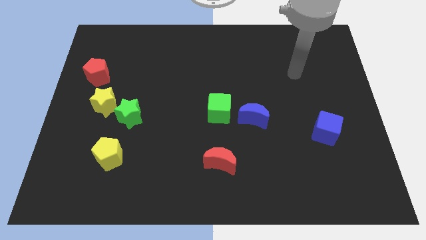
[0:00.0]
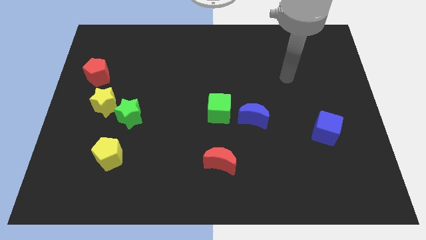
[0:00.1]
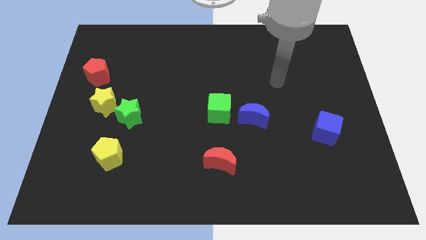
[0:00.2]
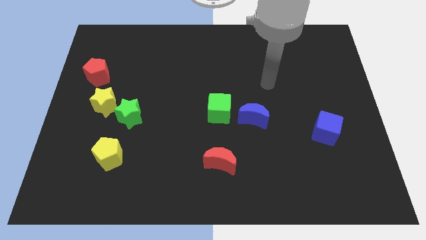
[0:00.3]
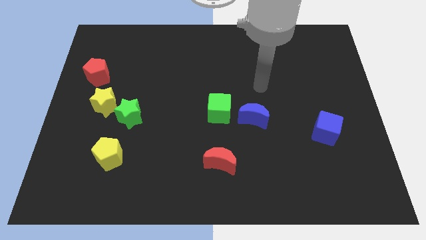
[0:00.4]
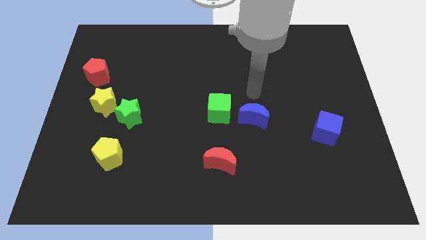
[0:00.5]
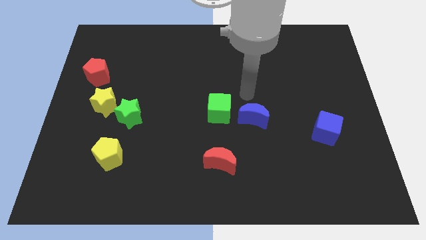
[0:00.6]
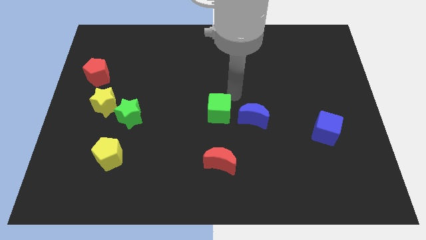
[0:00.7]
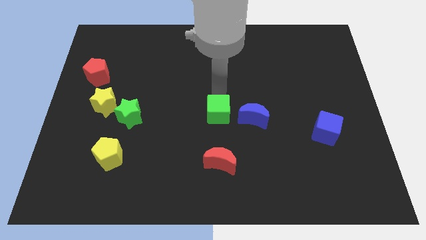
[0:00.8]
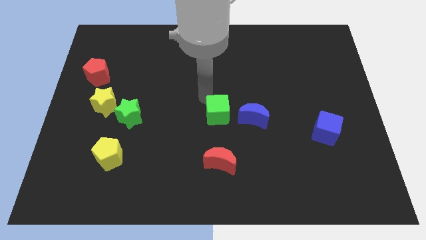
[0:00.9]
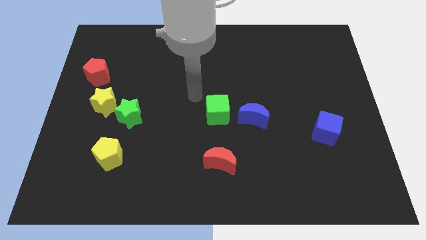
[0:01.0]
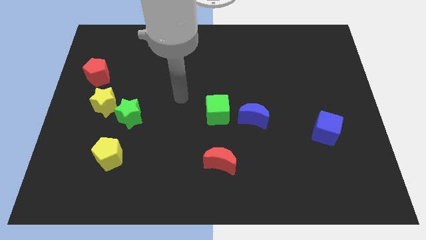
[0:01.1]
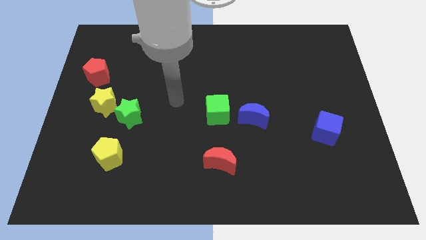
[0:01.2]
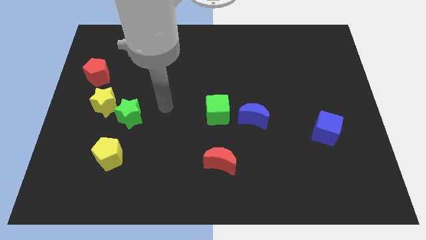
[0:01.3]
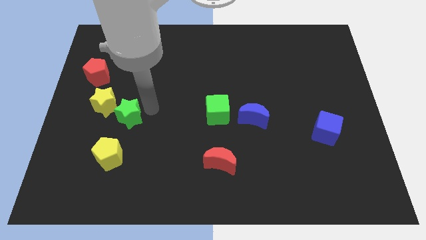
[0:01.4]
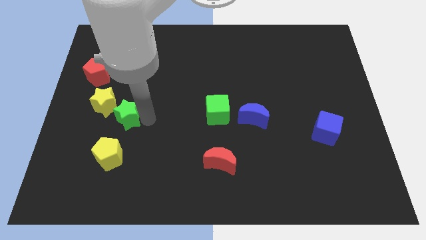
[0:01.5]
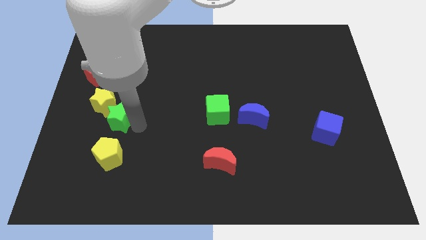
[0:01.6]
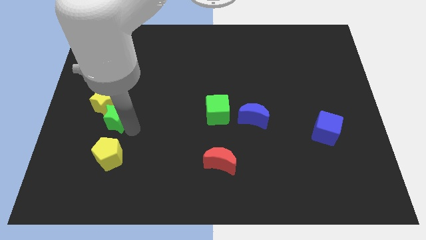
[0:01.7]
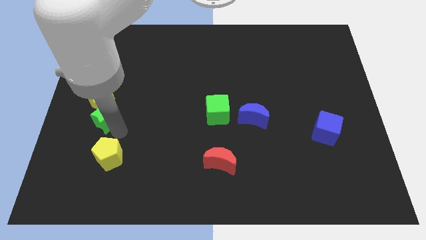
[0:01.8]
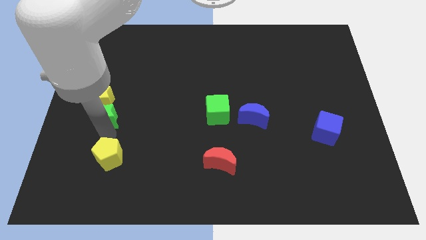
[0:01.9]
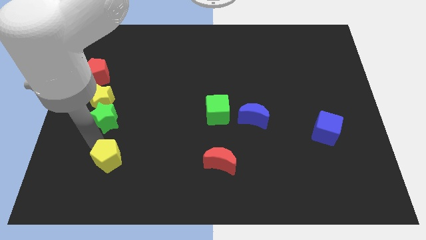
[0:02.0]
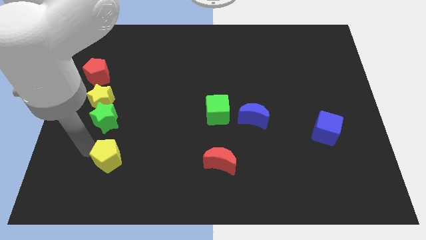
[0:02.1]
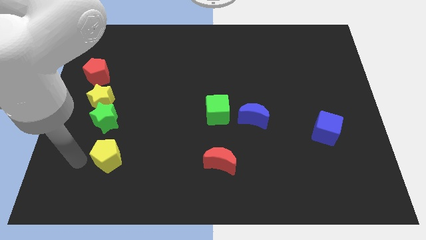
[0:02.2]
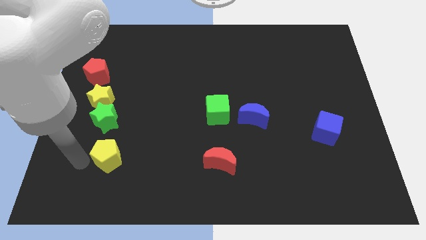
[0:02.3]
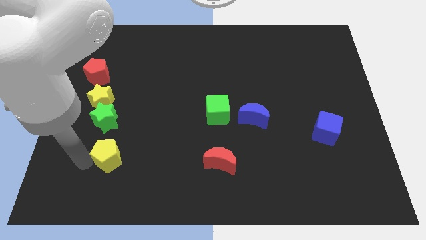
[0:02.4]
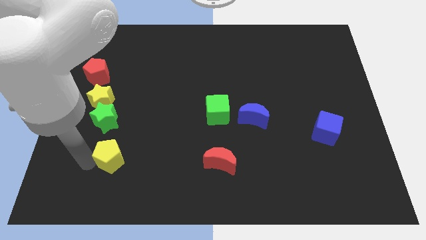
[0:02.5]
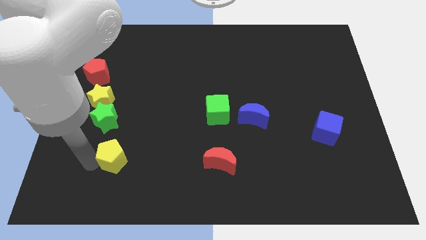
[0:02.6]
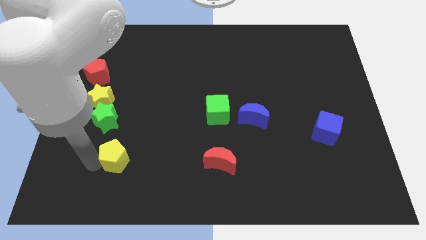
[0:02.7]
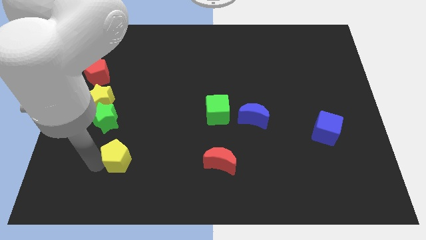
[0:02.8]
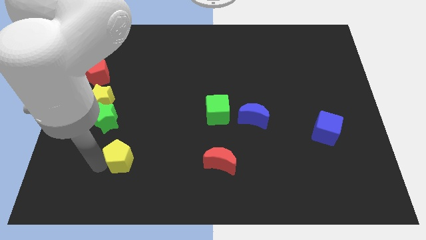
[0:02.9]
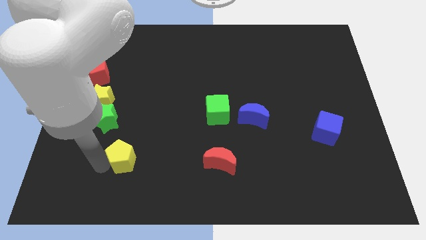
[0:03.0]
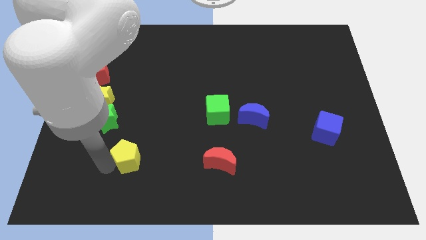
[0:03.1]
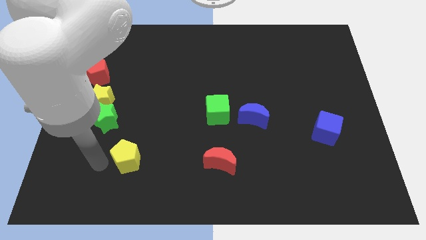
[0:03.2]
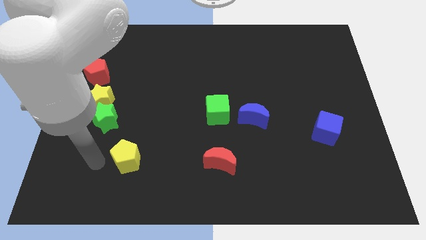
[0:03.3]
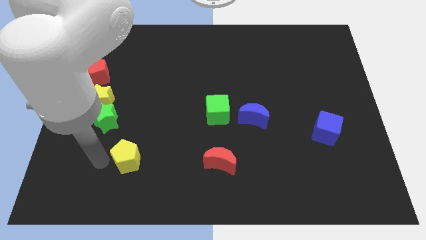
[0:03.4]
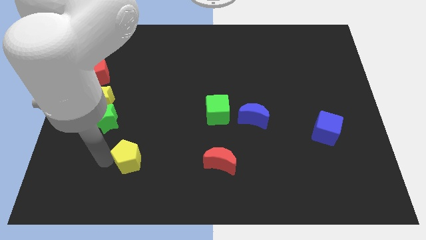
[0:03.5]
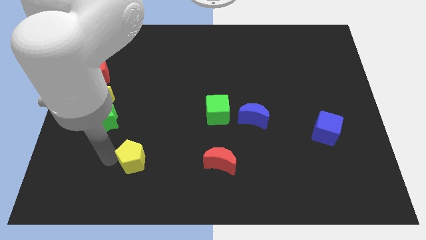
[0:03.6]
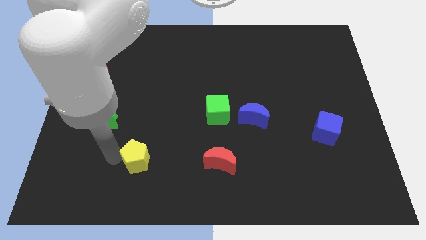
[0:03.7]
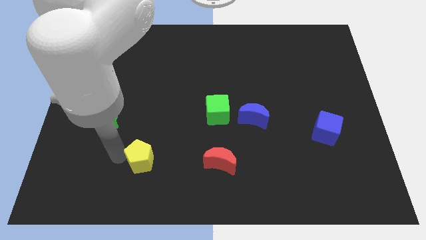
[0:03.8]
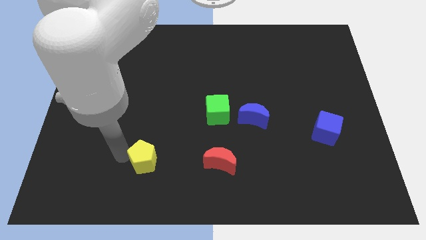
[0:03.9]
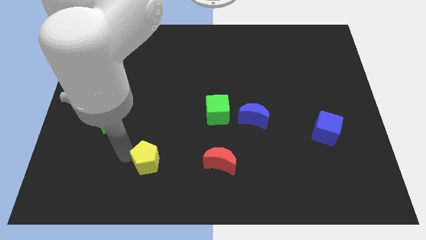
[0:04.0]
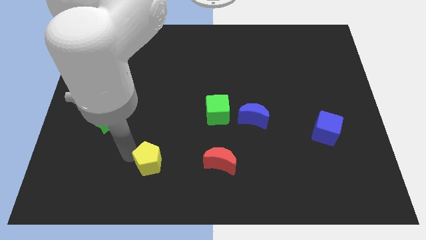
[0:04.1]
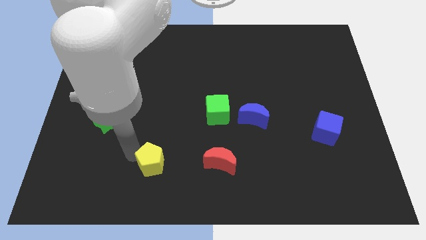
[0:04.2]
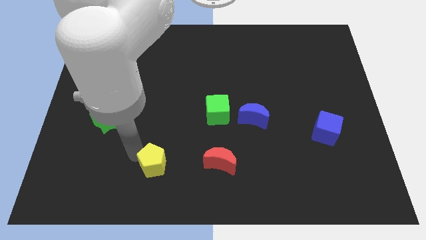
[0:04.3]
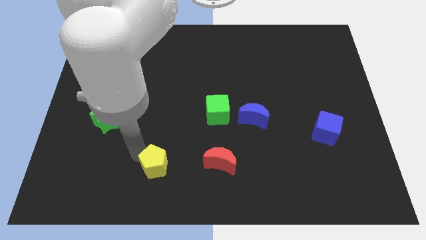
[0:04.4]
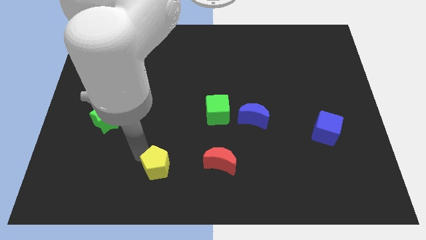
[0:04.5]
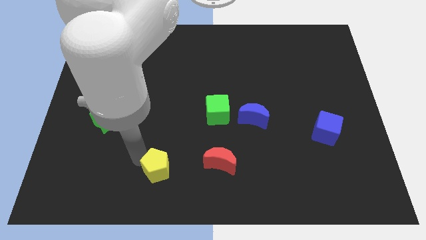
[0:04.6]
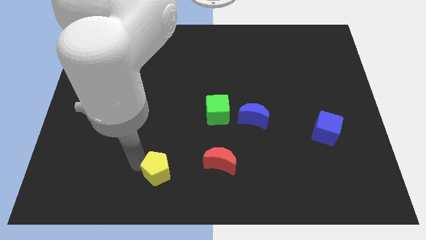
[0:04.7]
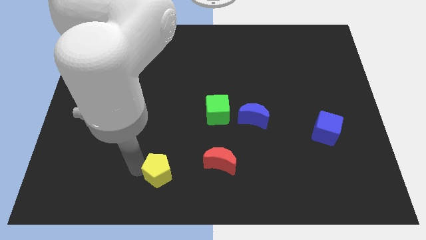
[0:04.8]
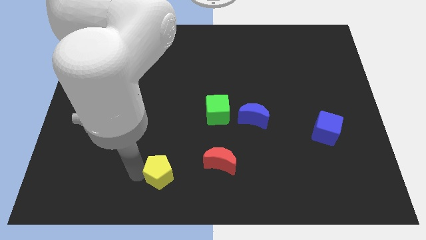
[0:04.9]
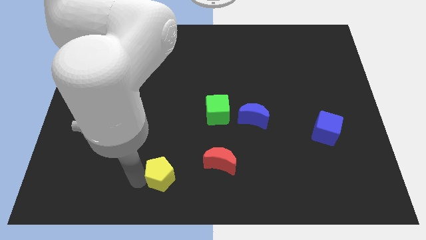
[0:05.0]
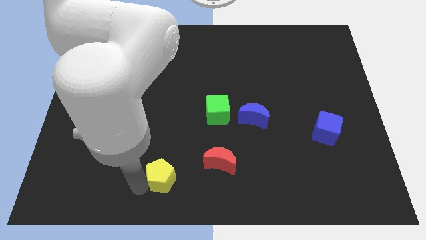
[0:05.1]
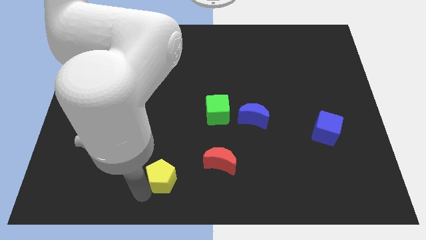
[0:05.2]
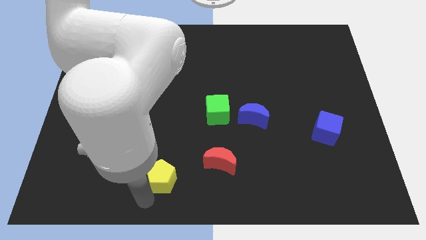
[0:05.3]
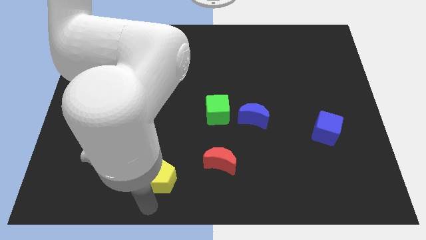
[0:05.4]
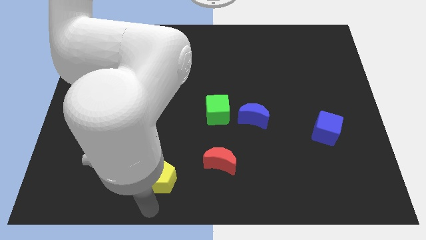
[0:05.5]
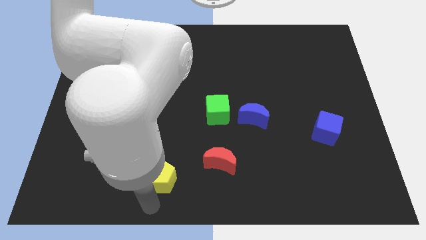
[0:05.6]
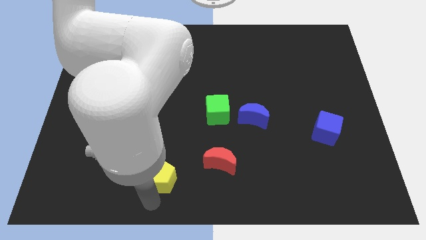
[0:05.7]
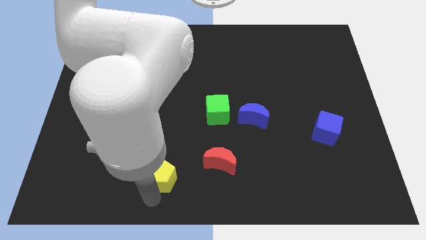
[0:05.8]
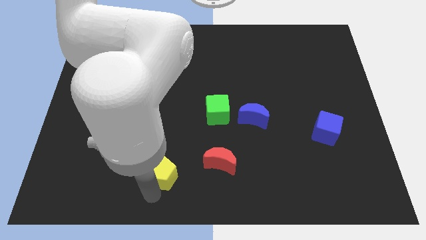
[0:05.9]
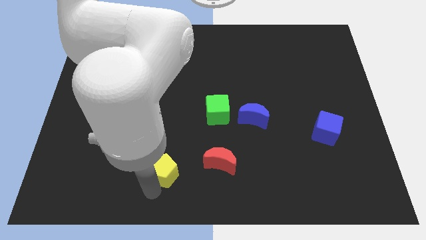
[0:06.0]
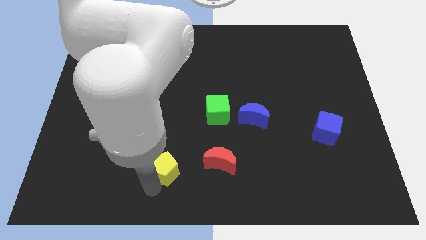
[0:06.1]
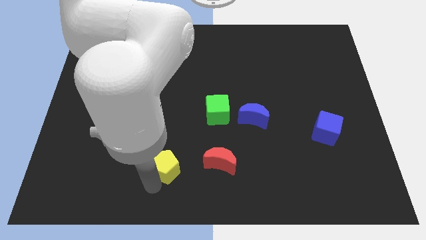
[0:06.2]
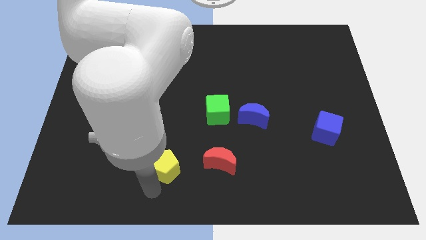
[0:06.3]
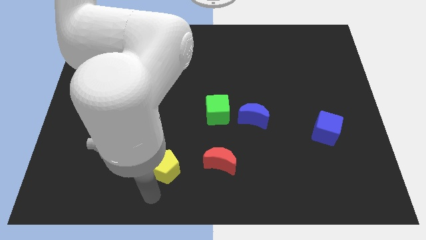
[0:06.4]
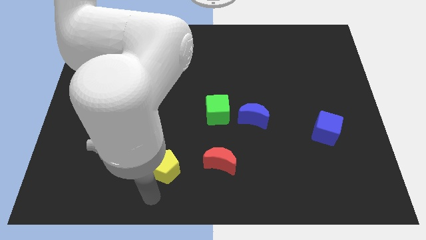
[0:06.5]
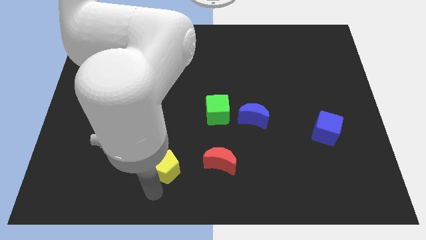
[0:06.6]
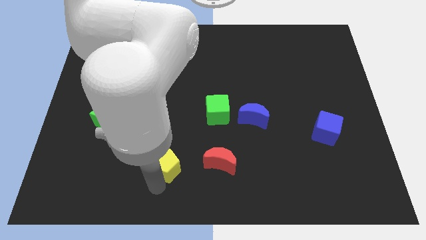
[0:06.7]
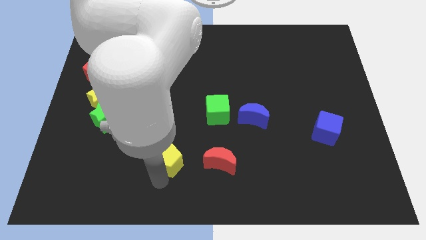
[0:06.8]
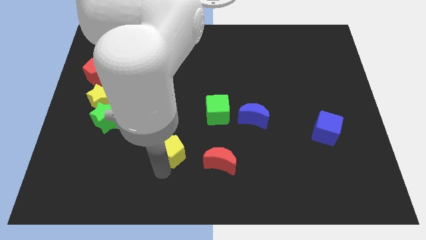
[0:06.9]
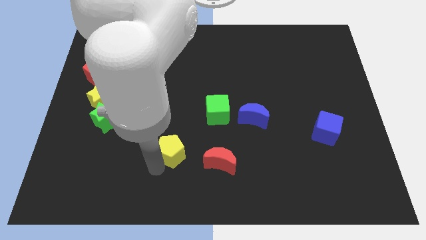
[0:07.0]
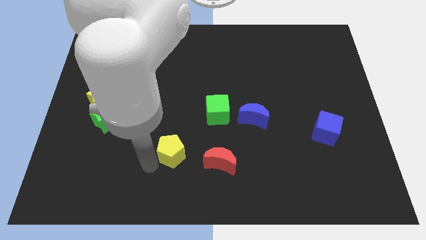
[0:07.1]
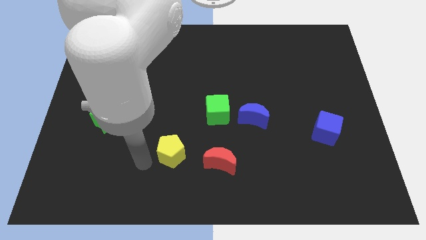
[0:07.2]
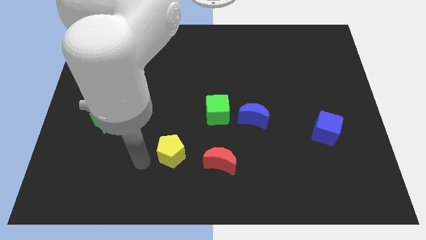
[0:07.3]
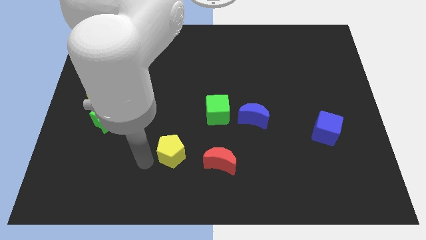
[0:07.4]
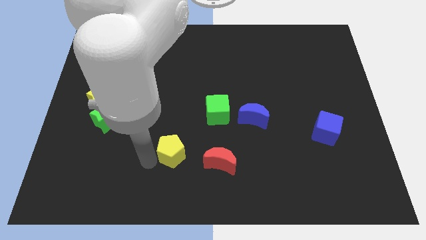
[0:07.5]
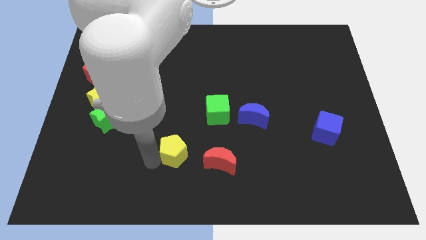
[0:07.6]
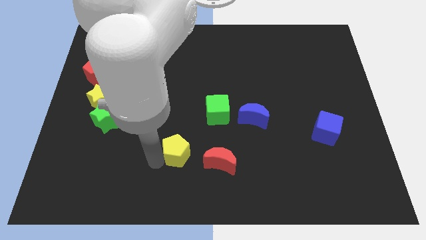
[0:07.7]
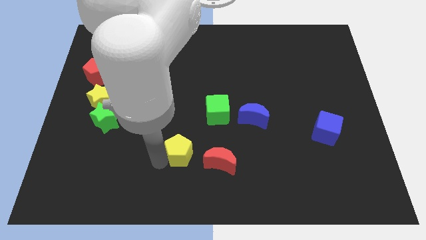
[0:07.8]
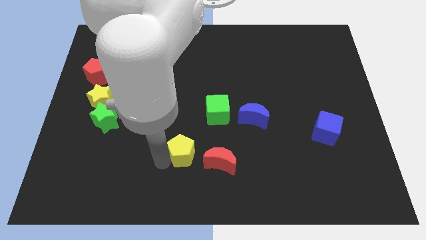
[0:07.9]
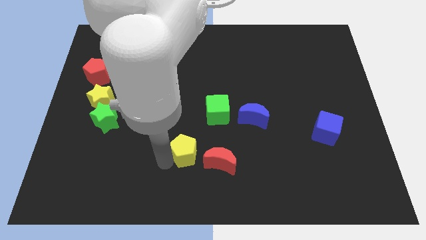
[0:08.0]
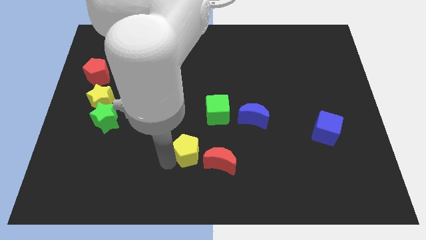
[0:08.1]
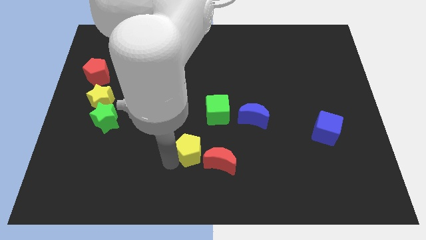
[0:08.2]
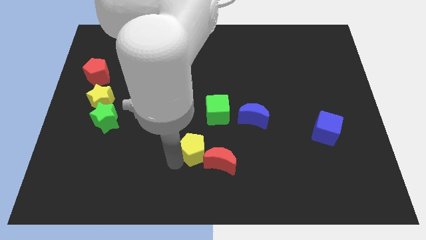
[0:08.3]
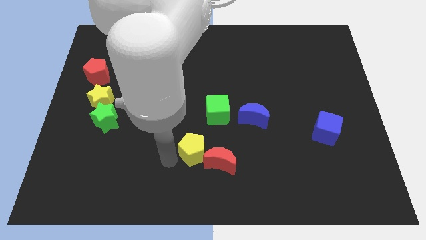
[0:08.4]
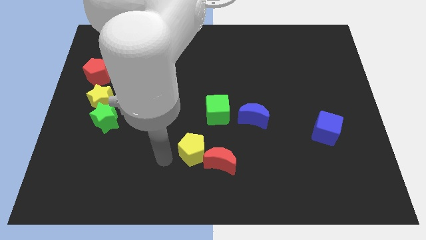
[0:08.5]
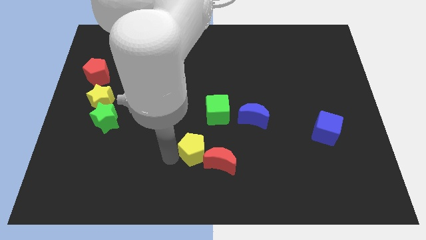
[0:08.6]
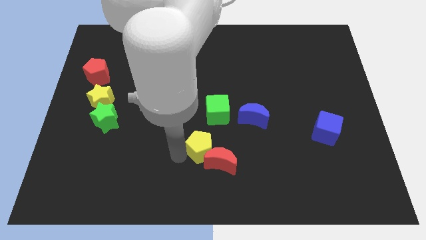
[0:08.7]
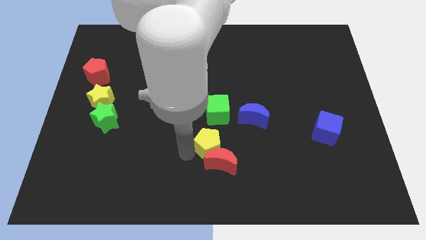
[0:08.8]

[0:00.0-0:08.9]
push the yellow pentagon right
